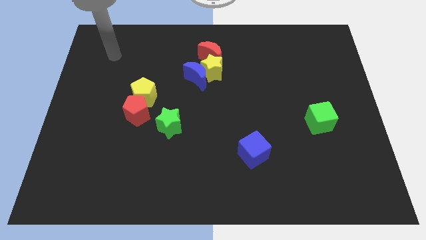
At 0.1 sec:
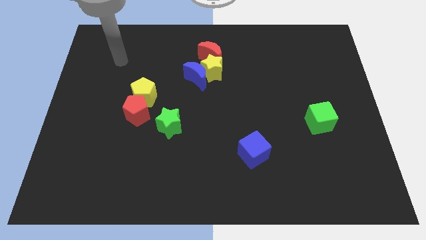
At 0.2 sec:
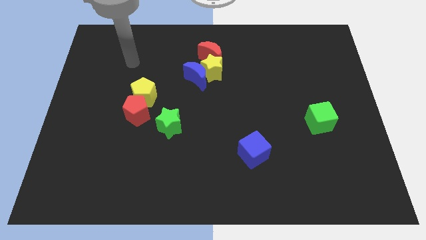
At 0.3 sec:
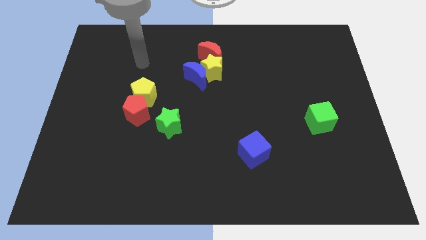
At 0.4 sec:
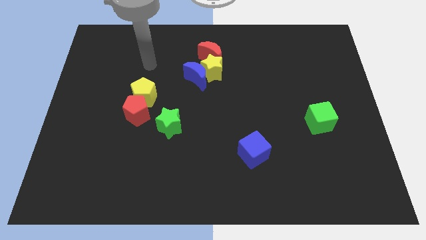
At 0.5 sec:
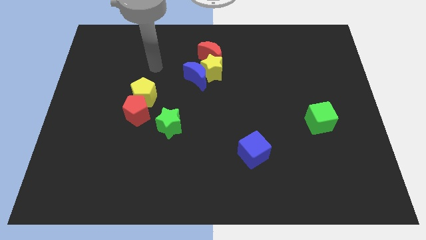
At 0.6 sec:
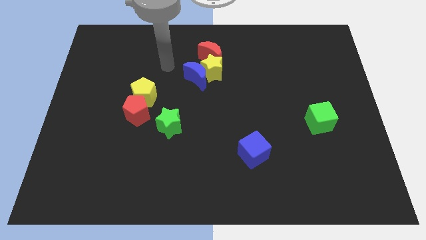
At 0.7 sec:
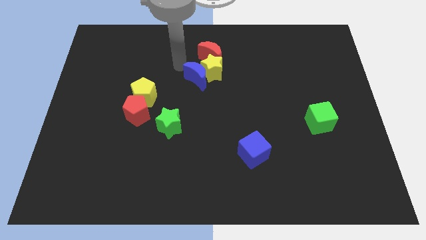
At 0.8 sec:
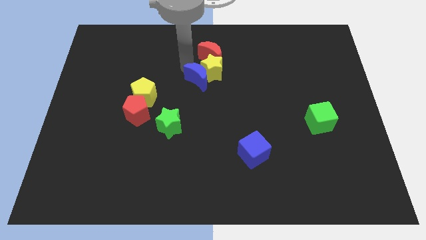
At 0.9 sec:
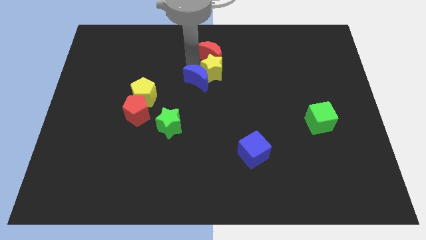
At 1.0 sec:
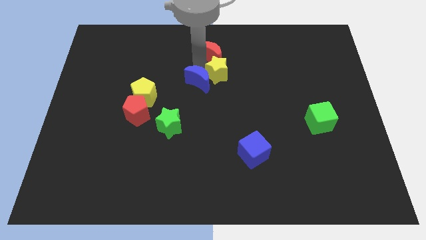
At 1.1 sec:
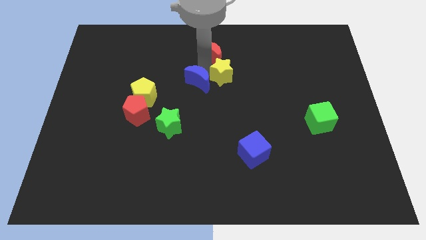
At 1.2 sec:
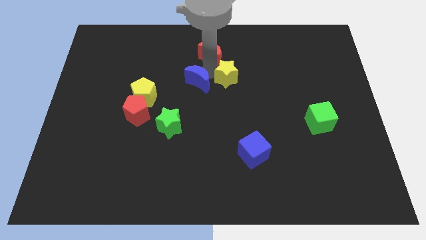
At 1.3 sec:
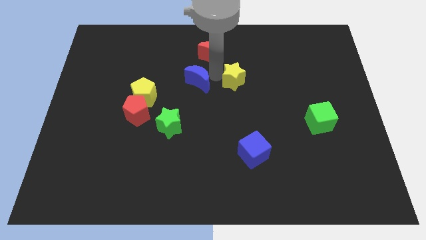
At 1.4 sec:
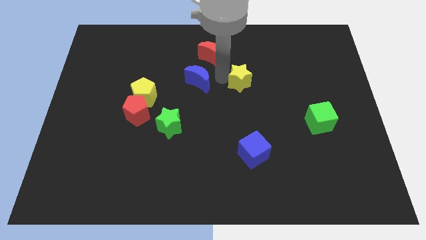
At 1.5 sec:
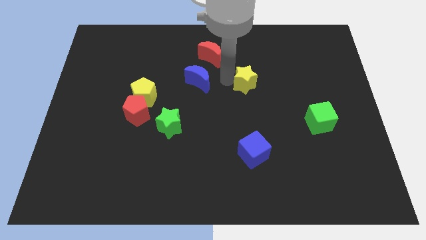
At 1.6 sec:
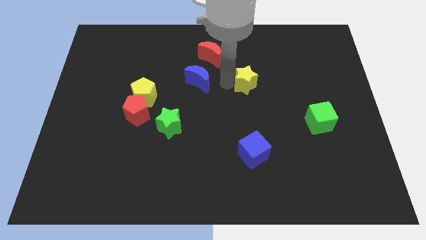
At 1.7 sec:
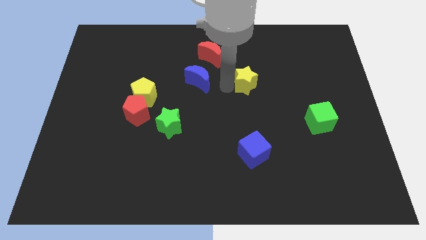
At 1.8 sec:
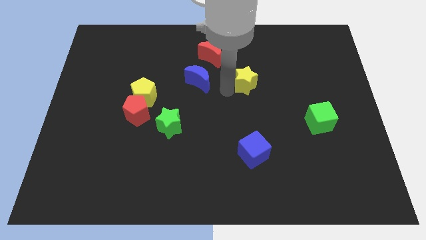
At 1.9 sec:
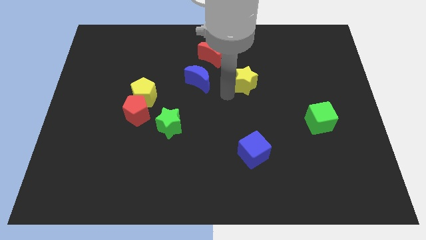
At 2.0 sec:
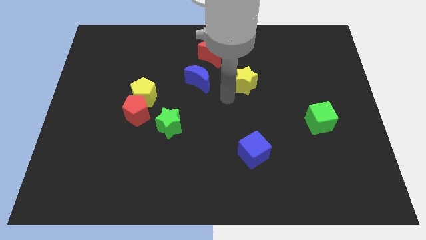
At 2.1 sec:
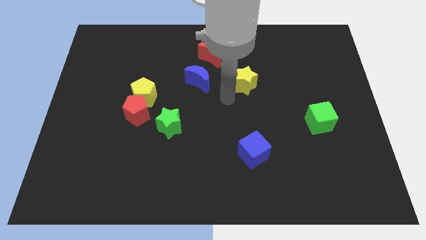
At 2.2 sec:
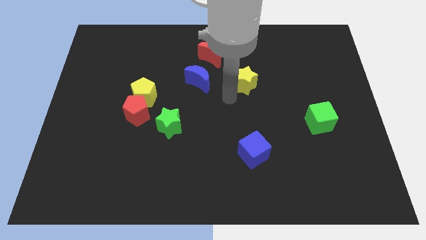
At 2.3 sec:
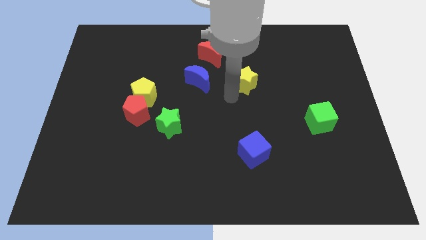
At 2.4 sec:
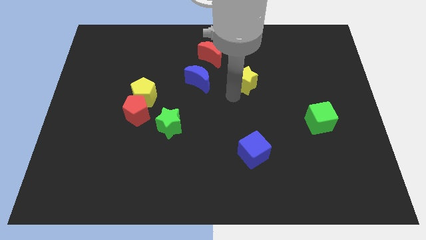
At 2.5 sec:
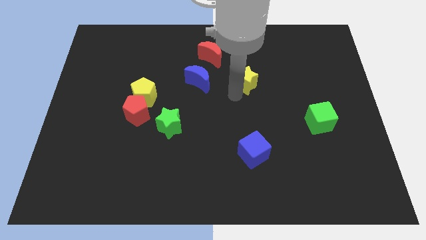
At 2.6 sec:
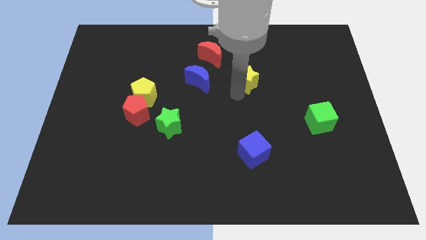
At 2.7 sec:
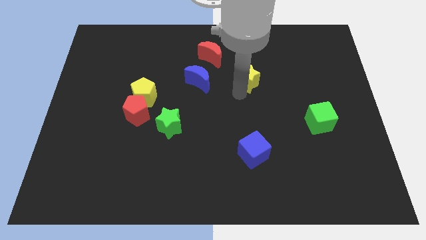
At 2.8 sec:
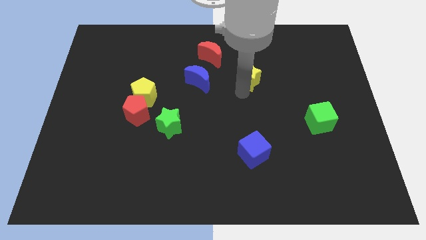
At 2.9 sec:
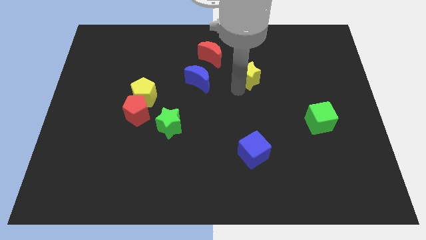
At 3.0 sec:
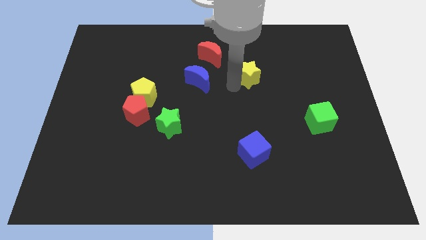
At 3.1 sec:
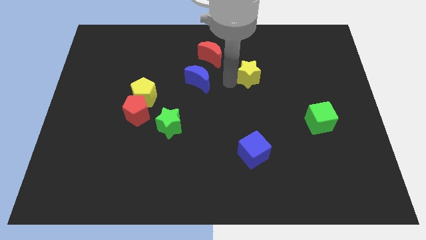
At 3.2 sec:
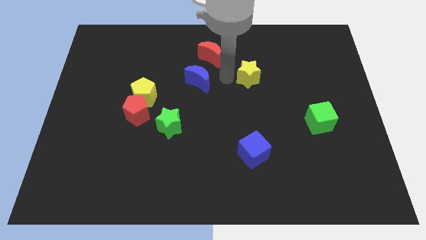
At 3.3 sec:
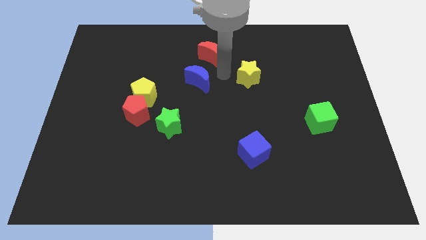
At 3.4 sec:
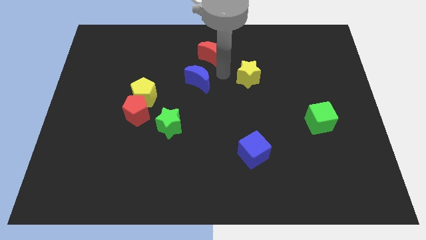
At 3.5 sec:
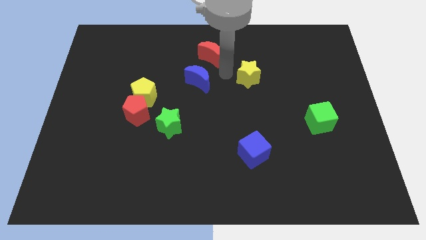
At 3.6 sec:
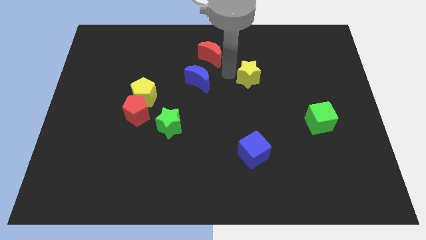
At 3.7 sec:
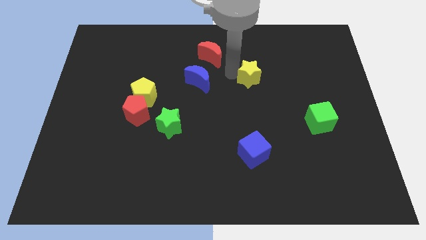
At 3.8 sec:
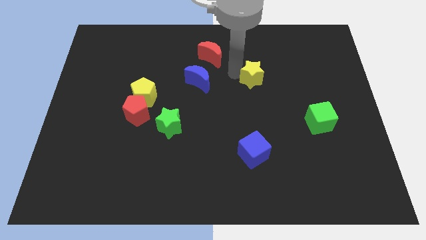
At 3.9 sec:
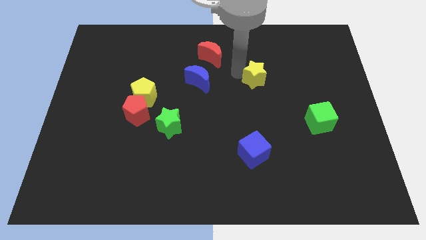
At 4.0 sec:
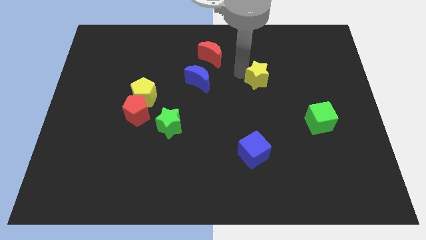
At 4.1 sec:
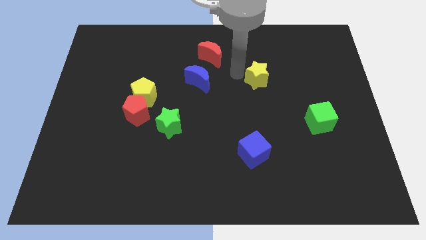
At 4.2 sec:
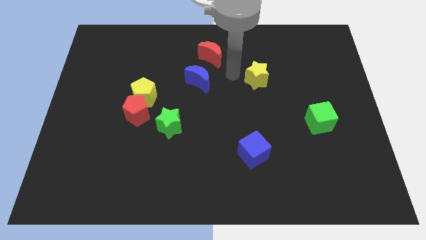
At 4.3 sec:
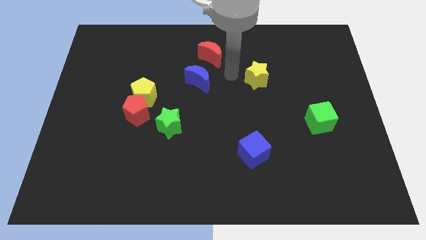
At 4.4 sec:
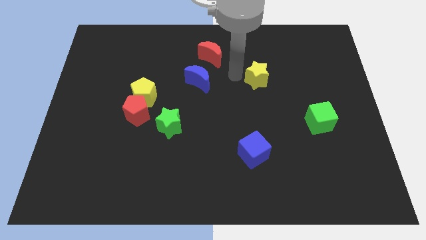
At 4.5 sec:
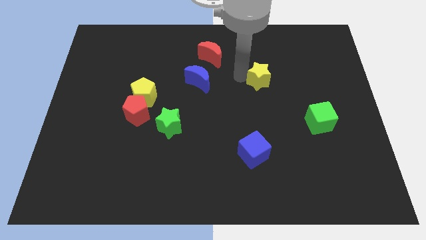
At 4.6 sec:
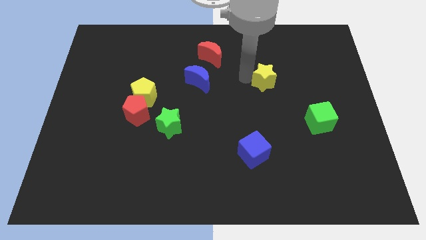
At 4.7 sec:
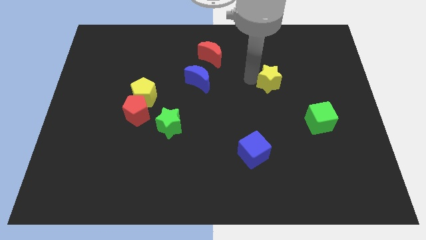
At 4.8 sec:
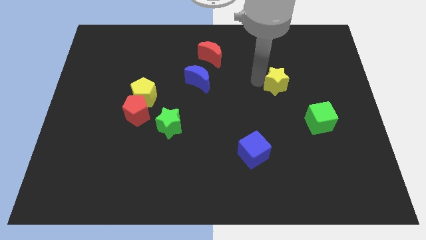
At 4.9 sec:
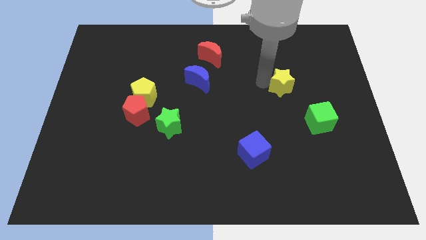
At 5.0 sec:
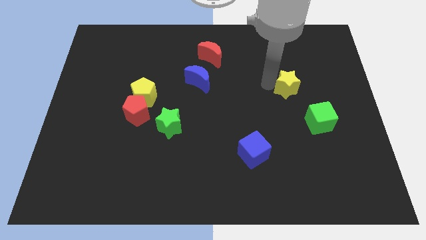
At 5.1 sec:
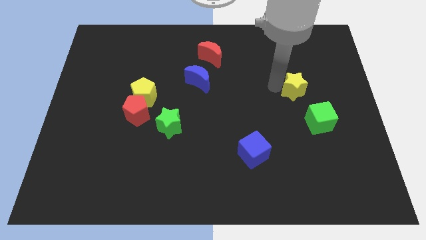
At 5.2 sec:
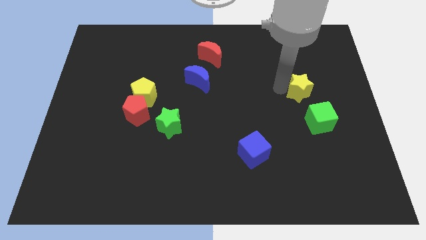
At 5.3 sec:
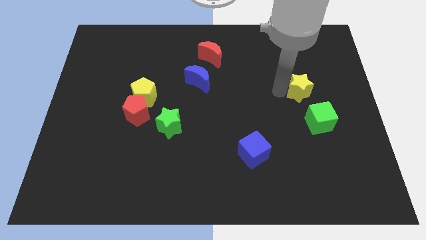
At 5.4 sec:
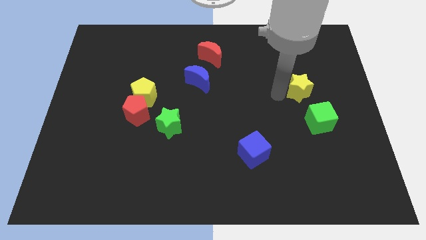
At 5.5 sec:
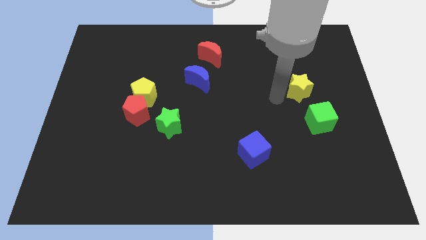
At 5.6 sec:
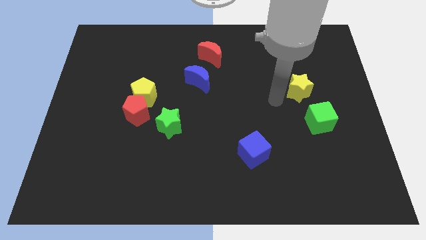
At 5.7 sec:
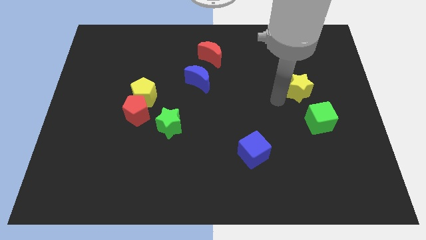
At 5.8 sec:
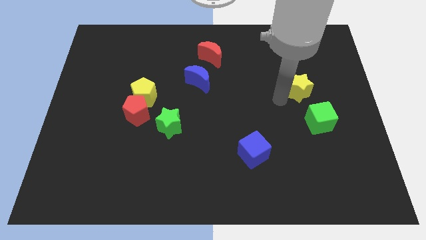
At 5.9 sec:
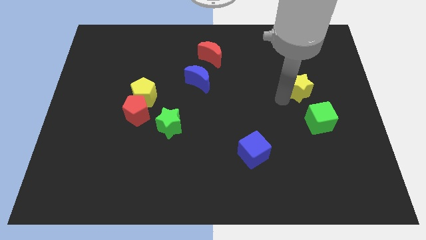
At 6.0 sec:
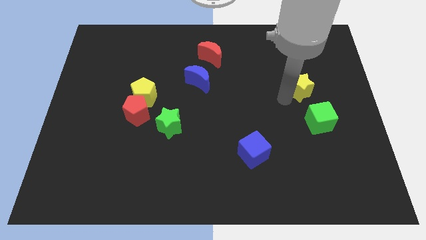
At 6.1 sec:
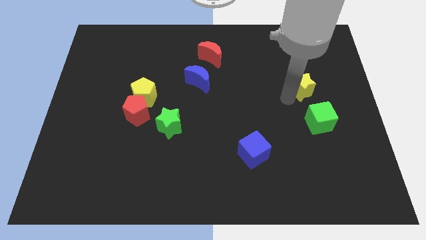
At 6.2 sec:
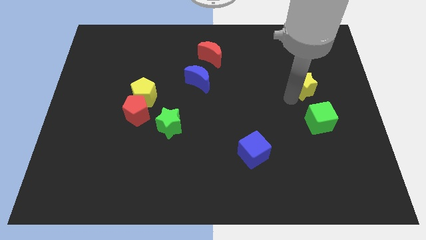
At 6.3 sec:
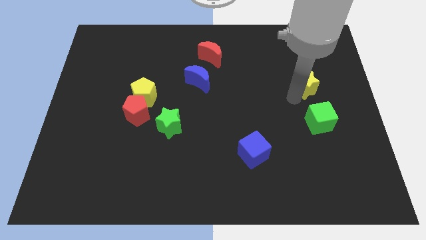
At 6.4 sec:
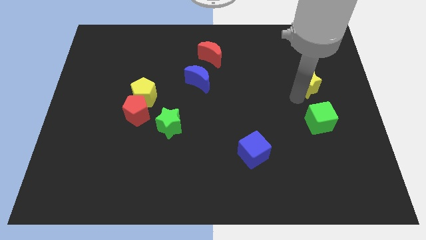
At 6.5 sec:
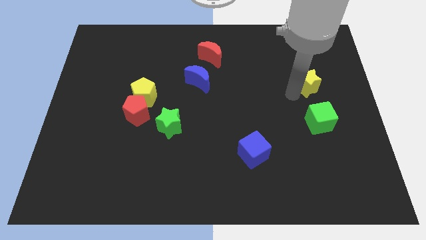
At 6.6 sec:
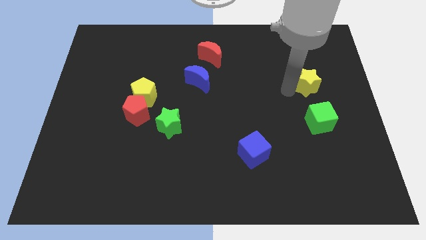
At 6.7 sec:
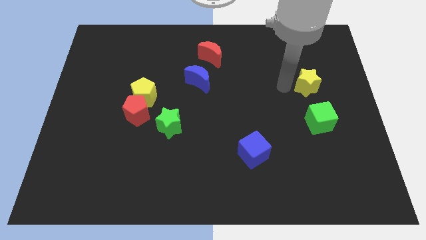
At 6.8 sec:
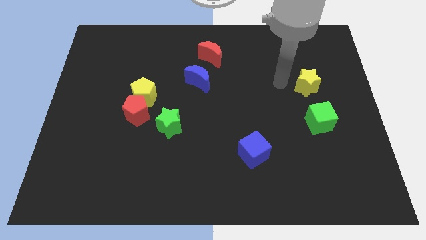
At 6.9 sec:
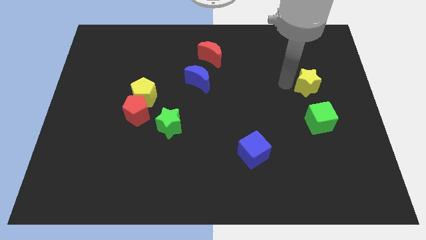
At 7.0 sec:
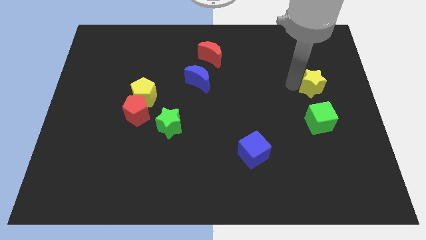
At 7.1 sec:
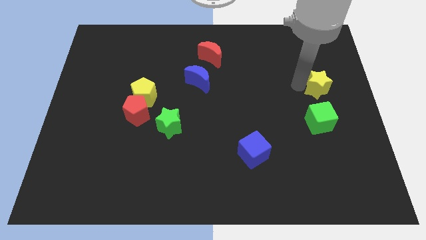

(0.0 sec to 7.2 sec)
move the yellow star to the right side of the board
